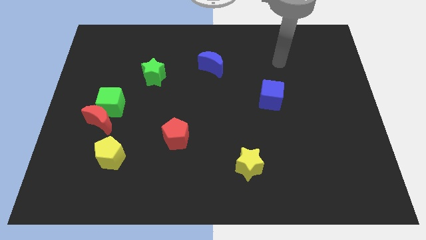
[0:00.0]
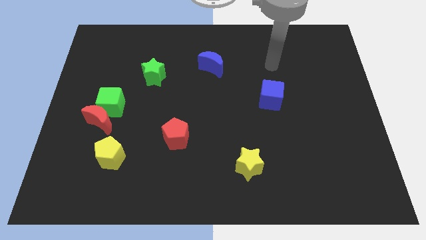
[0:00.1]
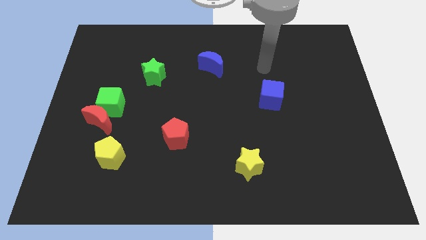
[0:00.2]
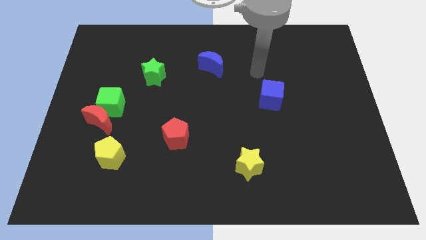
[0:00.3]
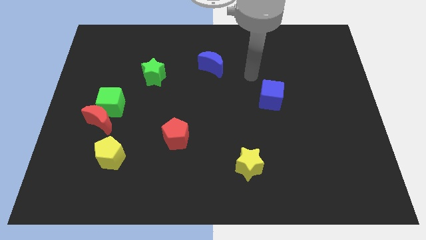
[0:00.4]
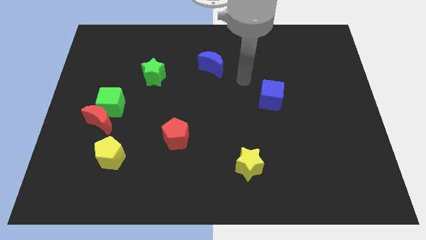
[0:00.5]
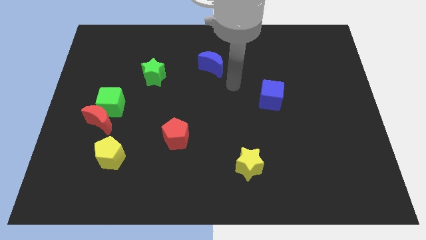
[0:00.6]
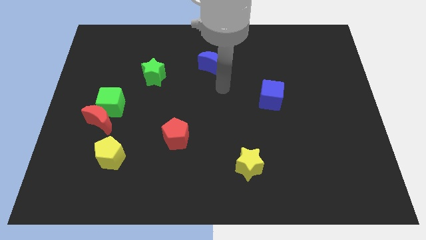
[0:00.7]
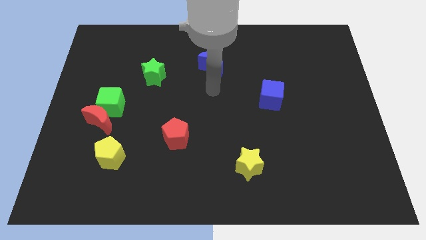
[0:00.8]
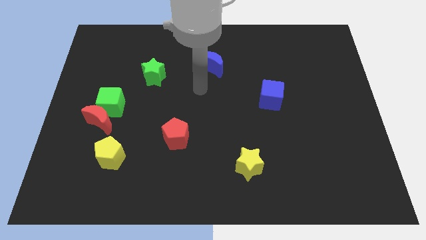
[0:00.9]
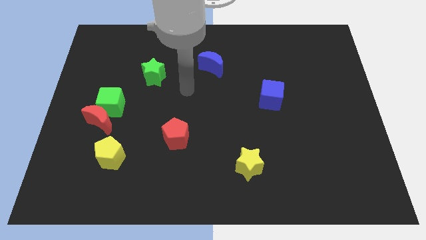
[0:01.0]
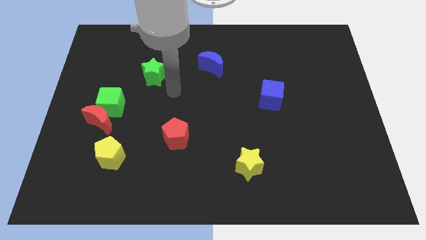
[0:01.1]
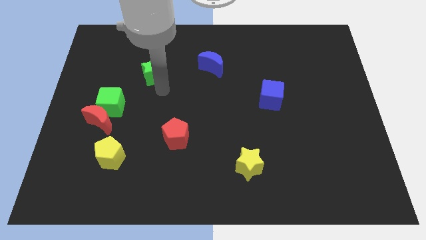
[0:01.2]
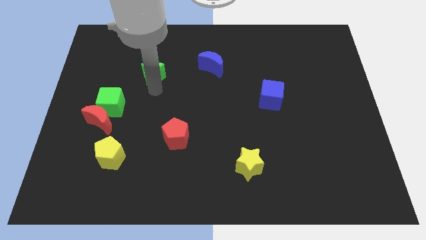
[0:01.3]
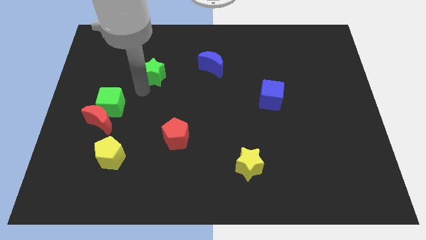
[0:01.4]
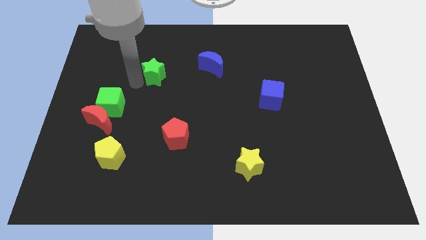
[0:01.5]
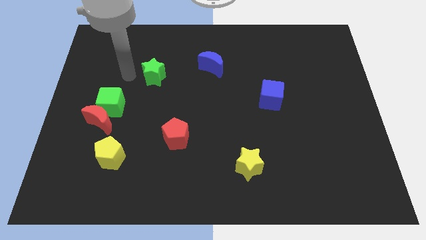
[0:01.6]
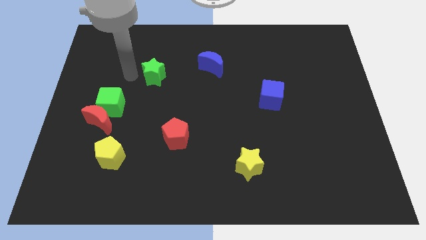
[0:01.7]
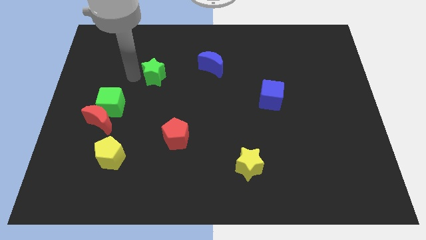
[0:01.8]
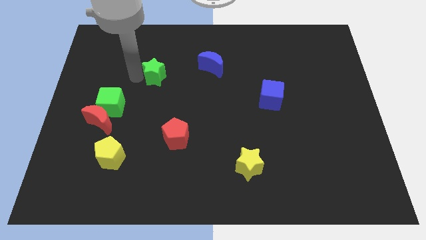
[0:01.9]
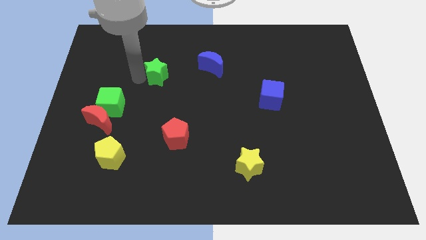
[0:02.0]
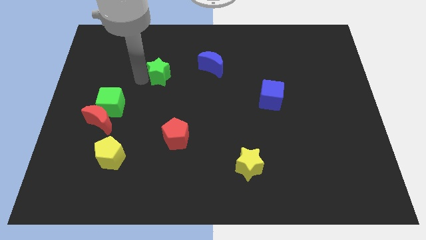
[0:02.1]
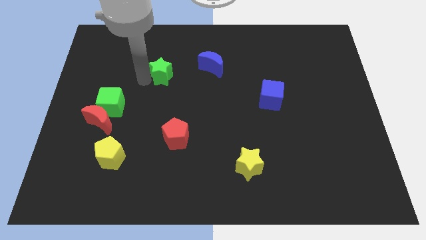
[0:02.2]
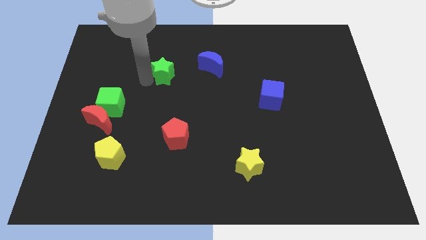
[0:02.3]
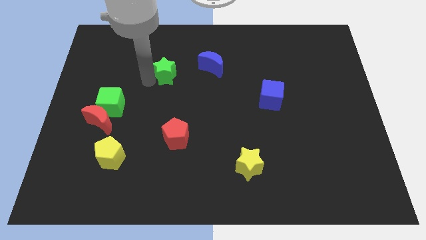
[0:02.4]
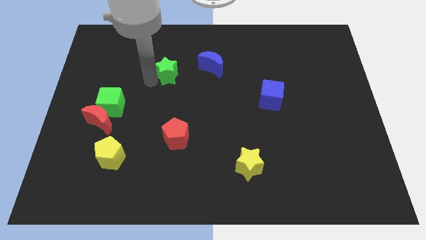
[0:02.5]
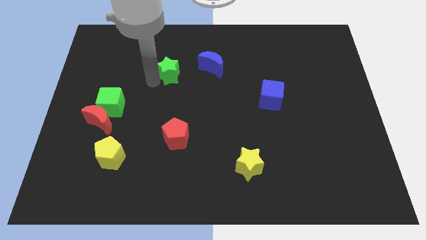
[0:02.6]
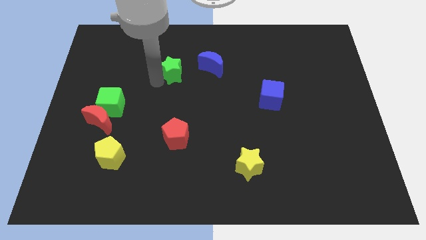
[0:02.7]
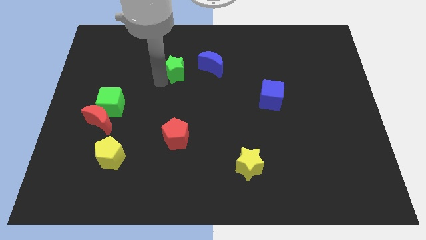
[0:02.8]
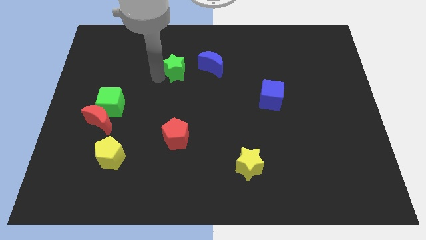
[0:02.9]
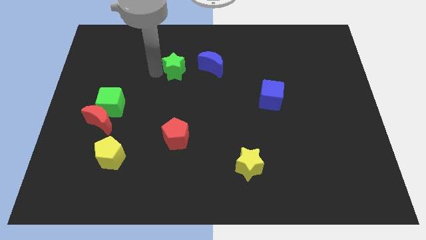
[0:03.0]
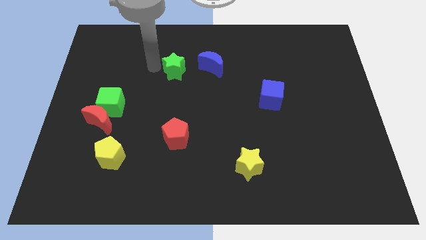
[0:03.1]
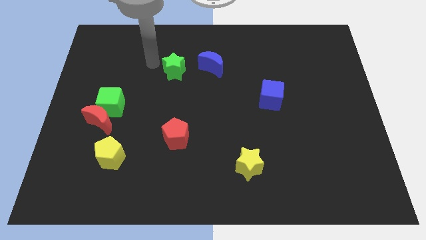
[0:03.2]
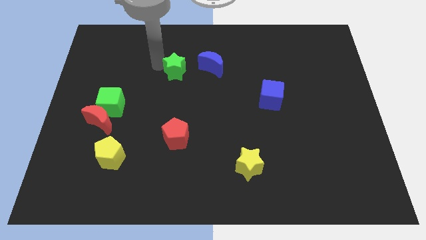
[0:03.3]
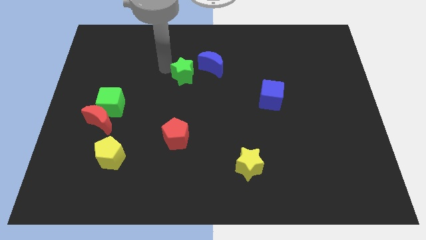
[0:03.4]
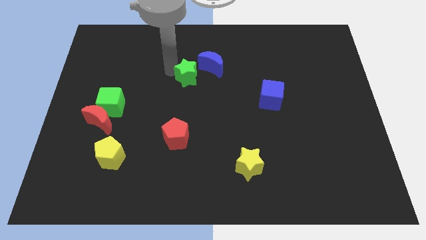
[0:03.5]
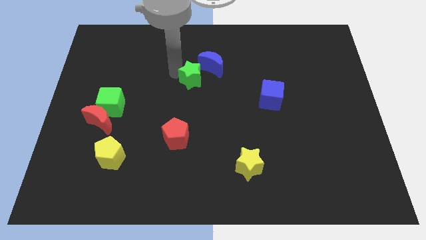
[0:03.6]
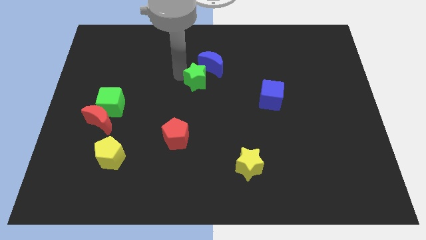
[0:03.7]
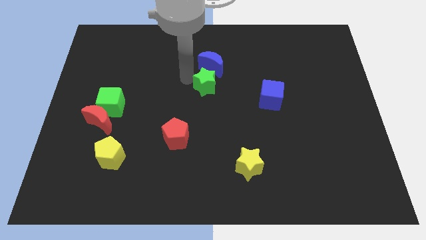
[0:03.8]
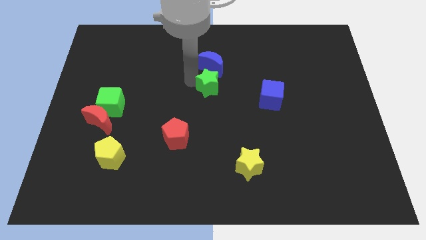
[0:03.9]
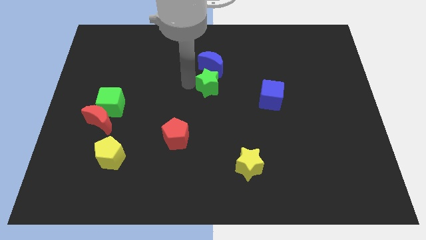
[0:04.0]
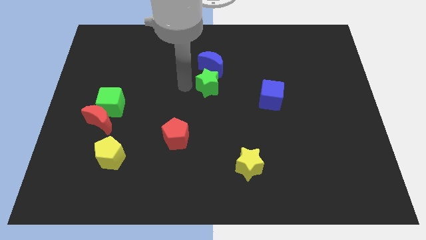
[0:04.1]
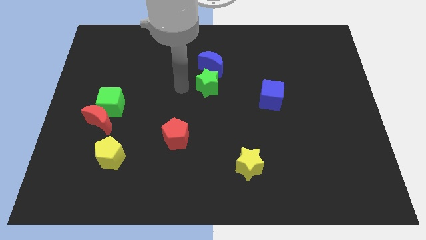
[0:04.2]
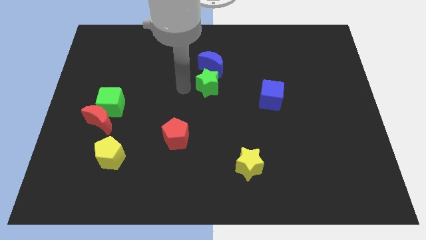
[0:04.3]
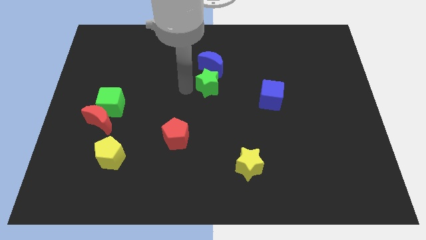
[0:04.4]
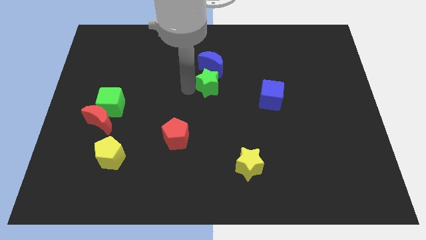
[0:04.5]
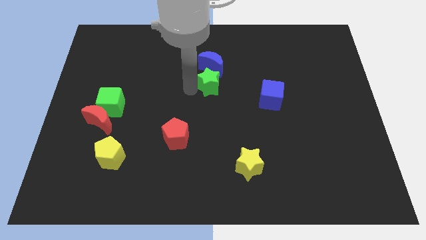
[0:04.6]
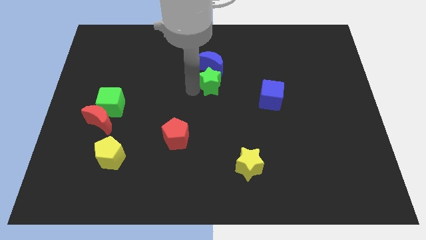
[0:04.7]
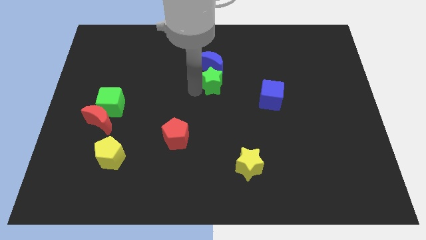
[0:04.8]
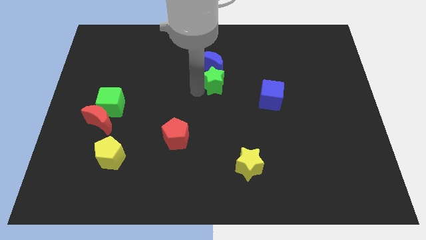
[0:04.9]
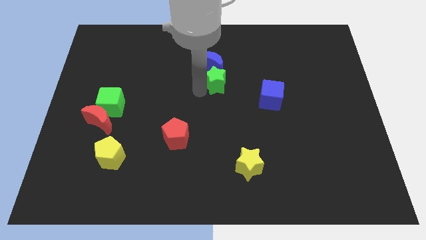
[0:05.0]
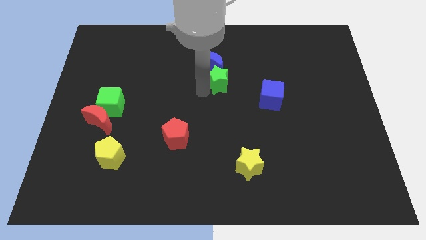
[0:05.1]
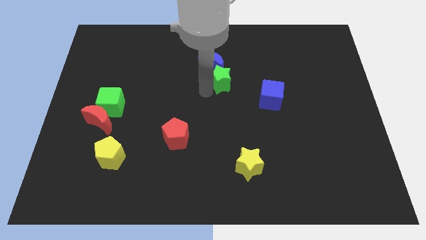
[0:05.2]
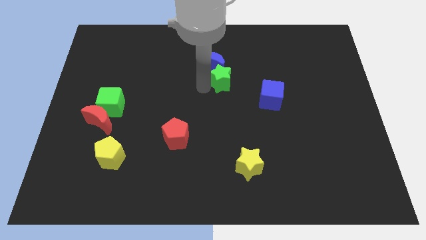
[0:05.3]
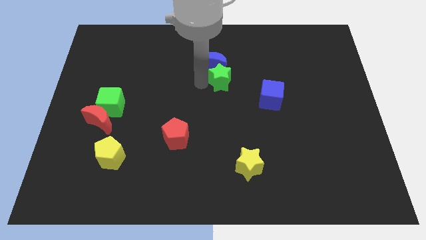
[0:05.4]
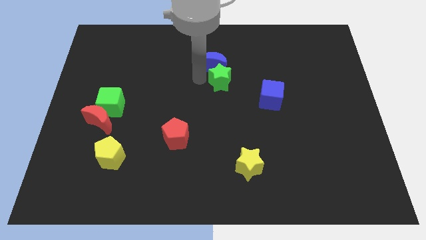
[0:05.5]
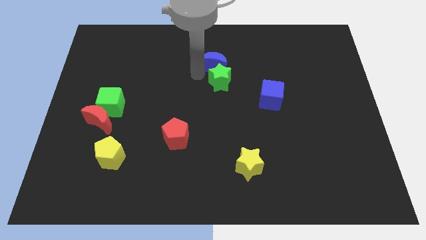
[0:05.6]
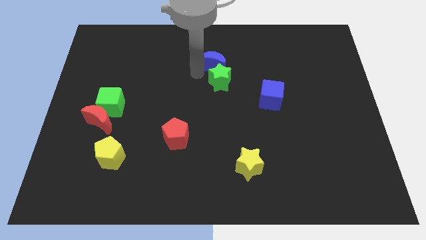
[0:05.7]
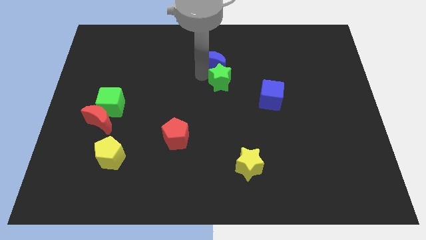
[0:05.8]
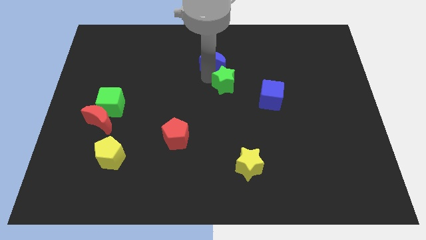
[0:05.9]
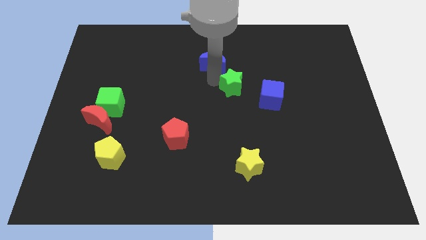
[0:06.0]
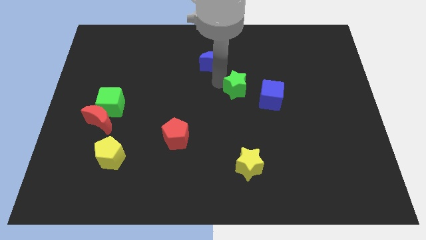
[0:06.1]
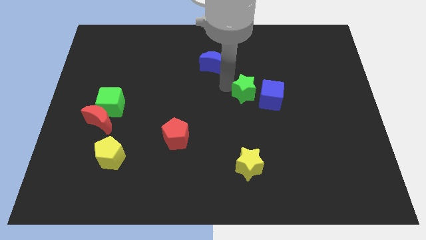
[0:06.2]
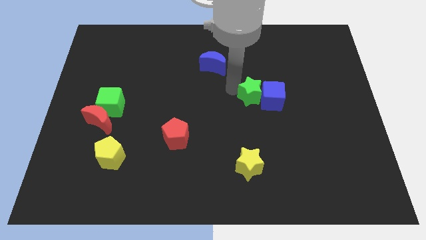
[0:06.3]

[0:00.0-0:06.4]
push the green star next to the blue cube
